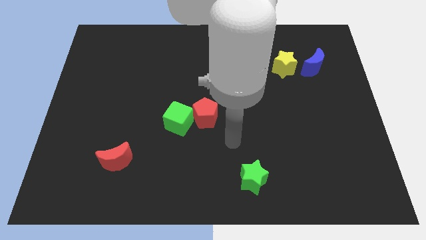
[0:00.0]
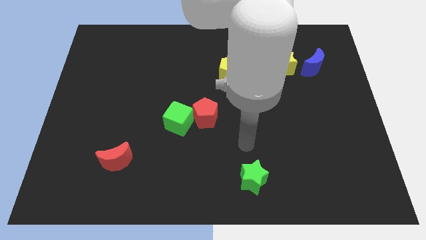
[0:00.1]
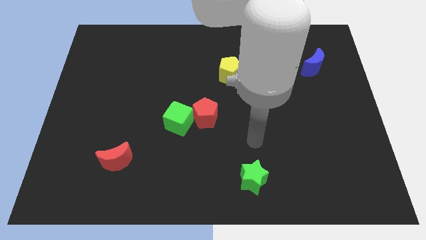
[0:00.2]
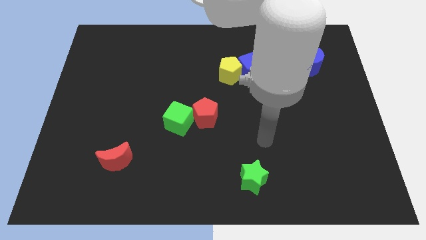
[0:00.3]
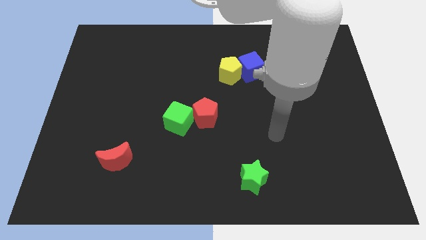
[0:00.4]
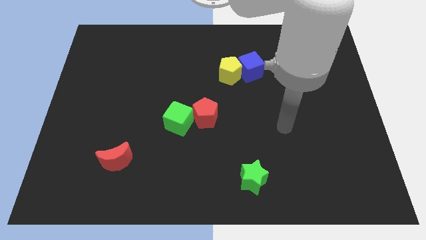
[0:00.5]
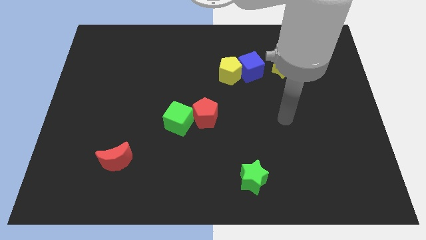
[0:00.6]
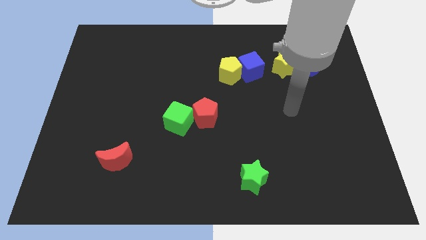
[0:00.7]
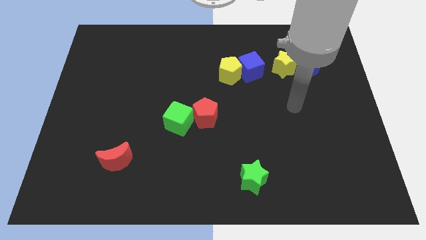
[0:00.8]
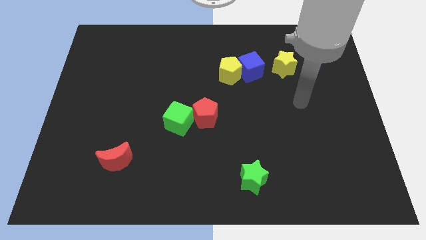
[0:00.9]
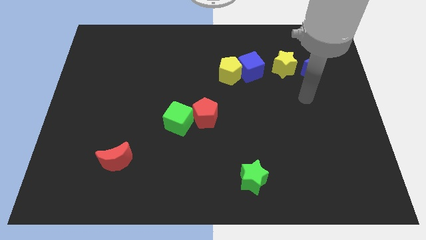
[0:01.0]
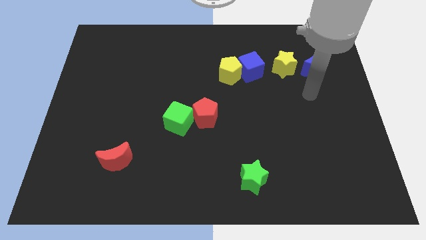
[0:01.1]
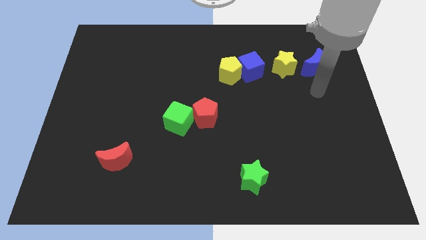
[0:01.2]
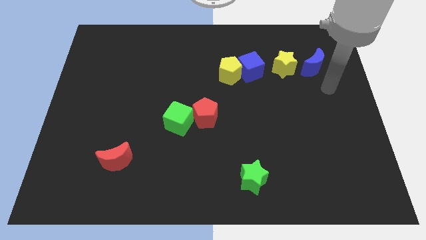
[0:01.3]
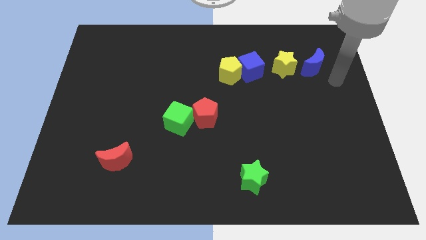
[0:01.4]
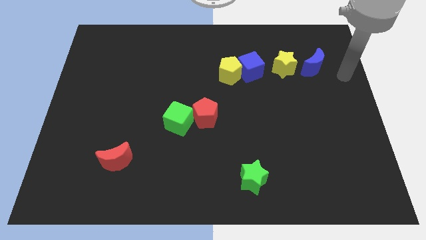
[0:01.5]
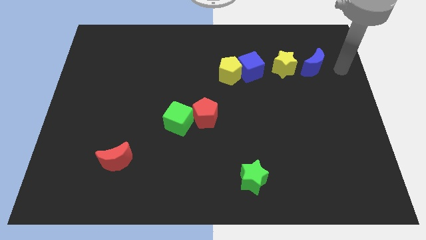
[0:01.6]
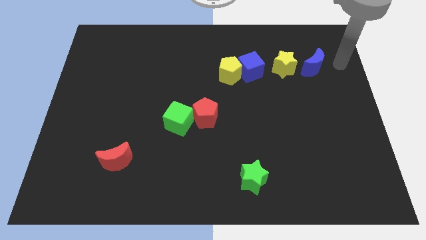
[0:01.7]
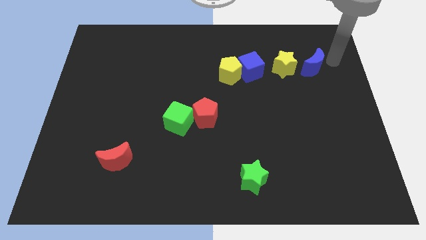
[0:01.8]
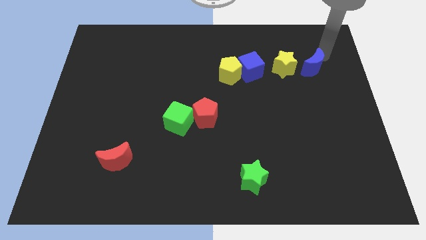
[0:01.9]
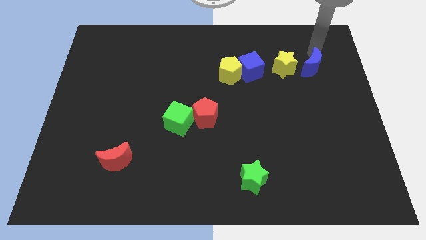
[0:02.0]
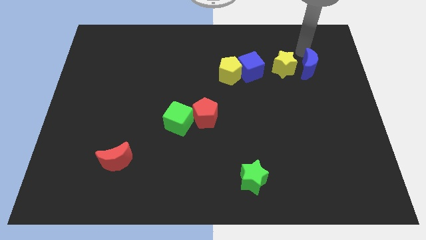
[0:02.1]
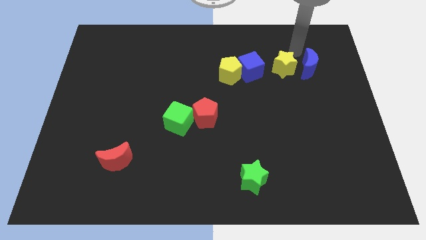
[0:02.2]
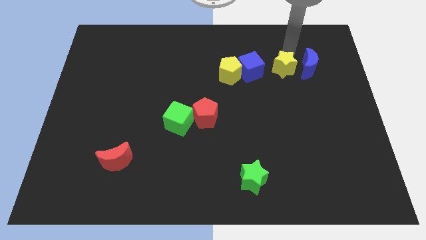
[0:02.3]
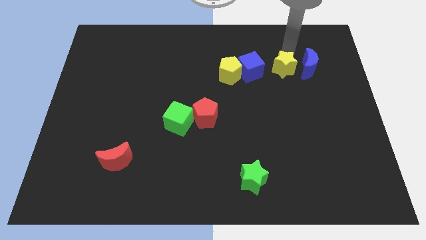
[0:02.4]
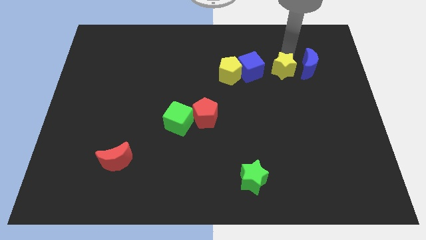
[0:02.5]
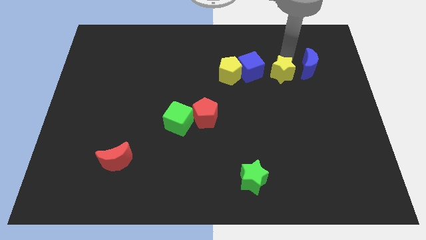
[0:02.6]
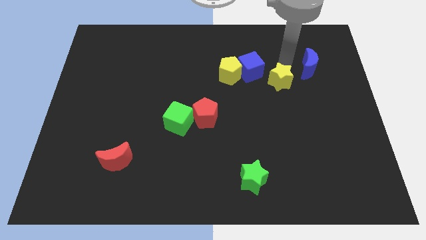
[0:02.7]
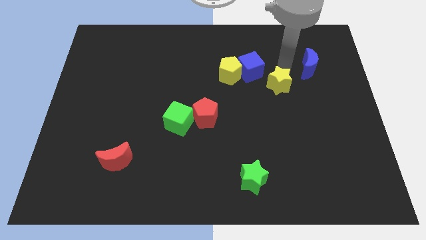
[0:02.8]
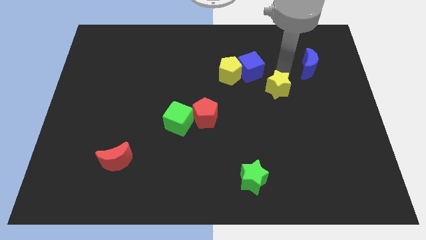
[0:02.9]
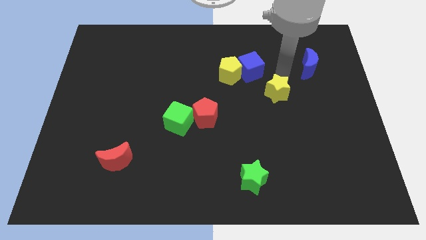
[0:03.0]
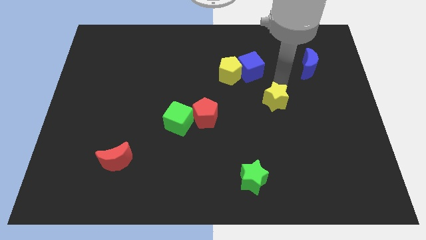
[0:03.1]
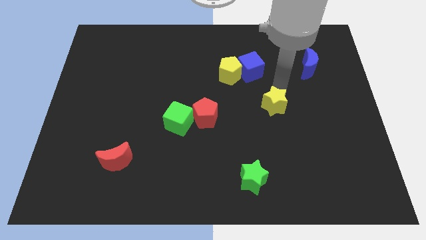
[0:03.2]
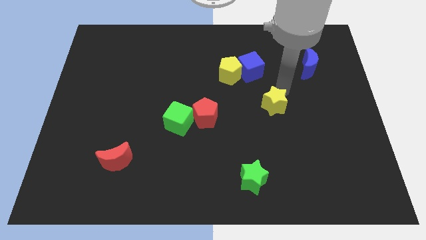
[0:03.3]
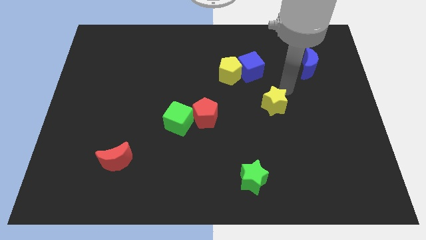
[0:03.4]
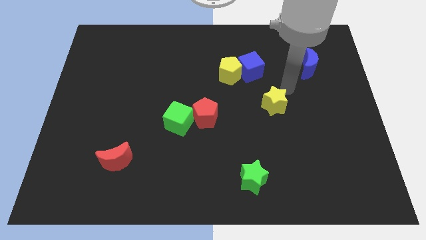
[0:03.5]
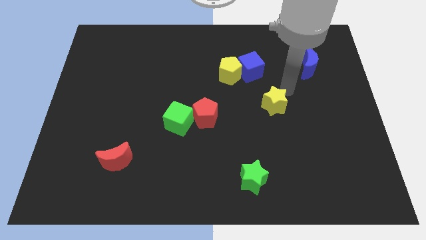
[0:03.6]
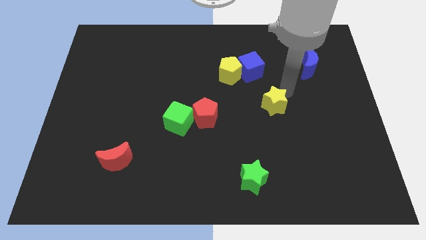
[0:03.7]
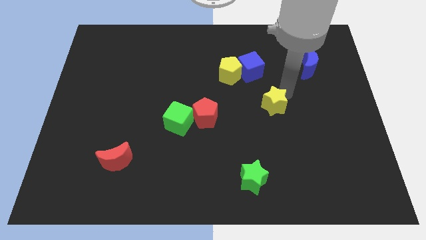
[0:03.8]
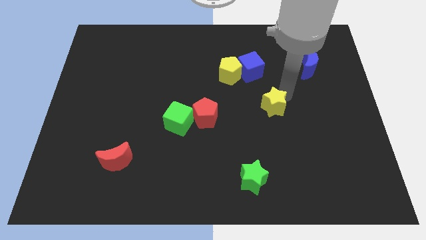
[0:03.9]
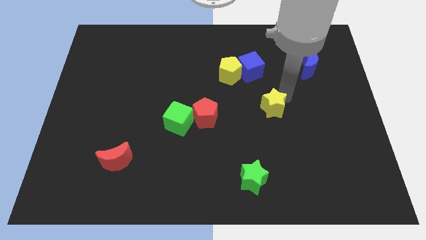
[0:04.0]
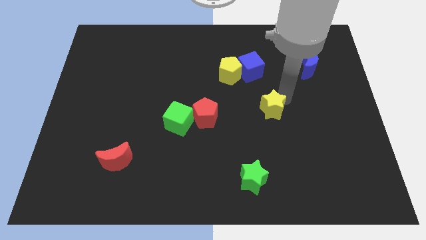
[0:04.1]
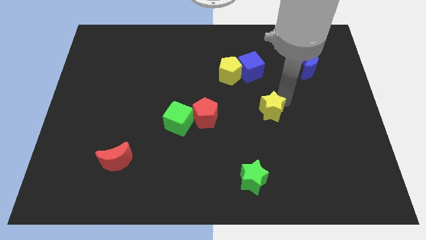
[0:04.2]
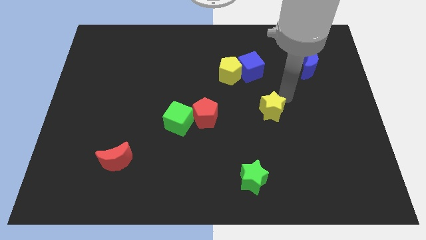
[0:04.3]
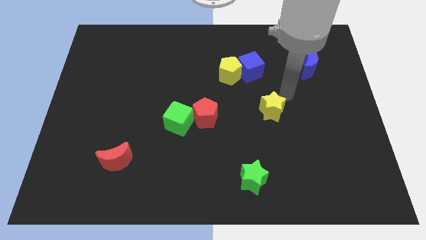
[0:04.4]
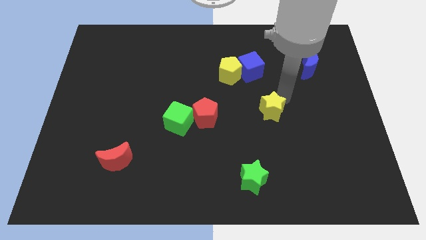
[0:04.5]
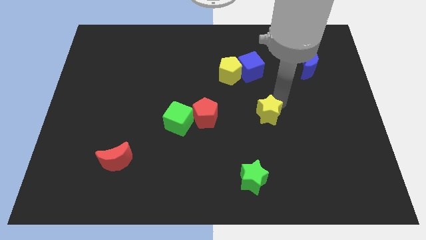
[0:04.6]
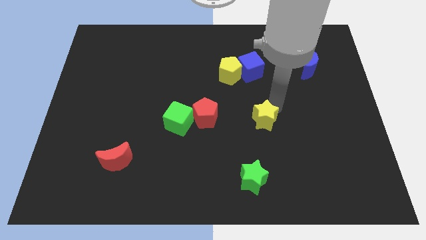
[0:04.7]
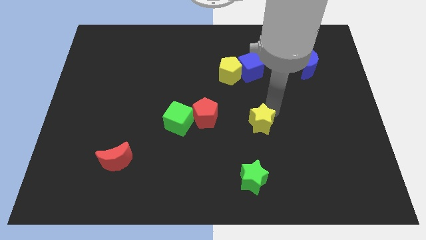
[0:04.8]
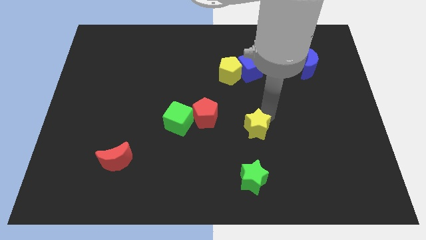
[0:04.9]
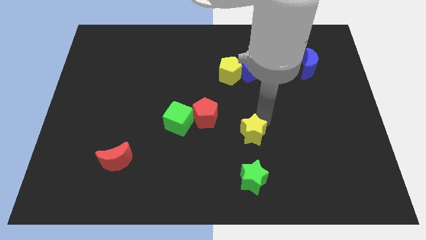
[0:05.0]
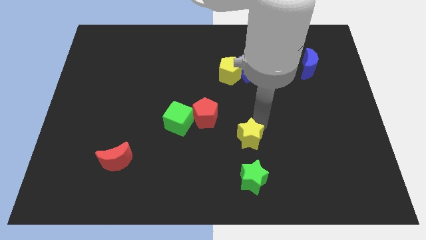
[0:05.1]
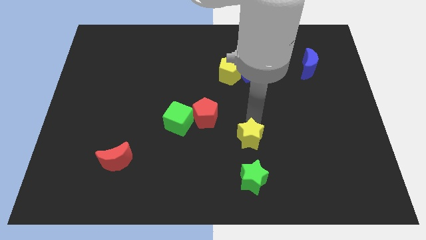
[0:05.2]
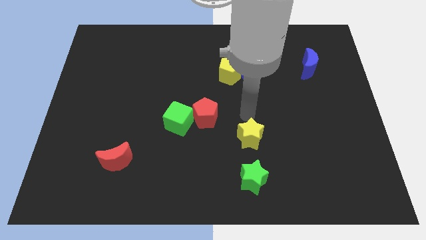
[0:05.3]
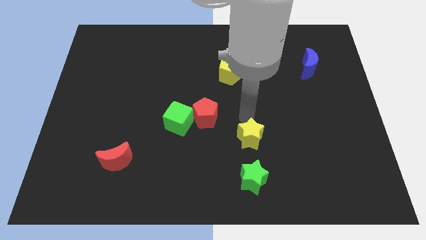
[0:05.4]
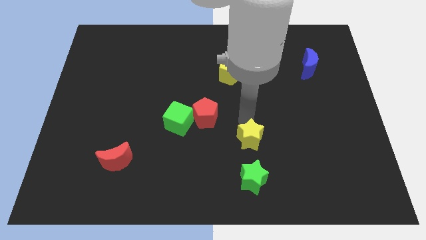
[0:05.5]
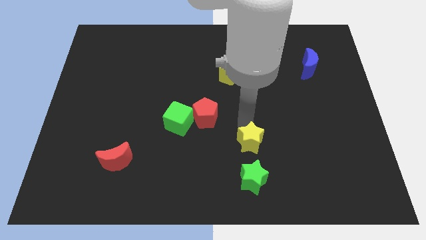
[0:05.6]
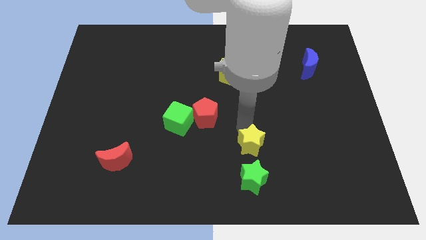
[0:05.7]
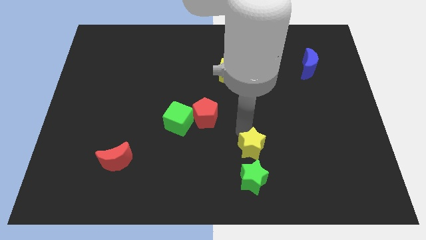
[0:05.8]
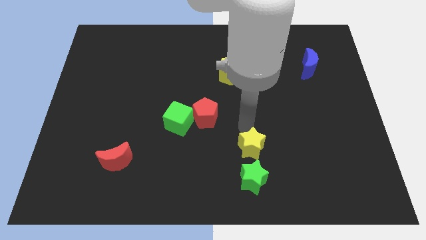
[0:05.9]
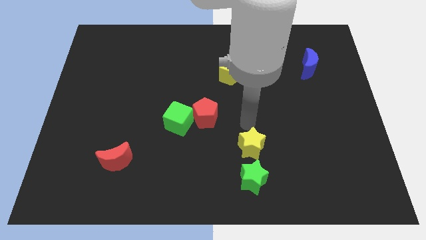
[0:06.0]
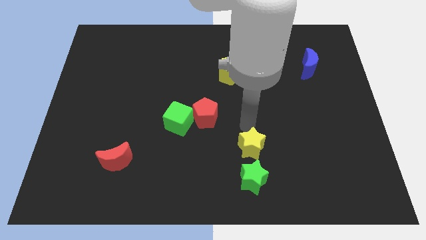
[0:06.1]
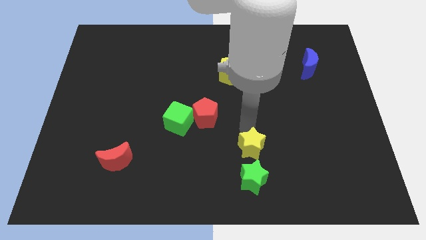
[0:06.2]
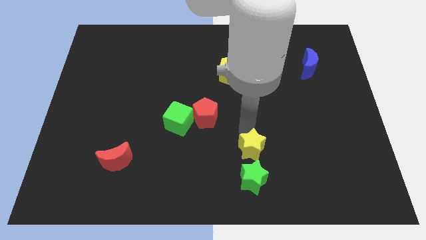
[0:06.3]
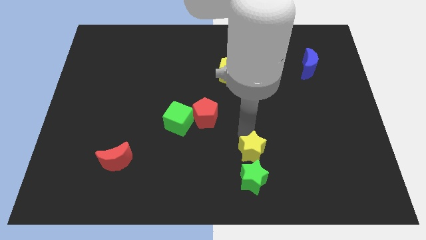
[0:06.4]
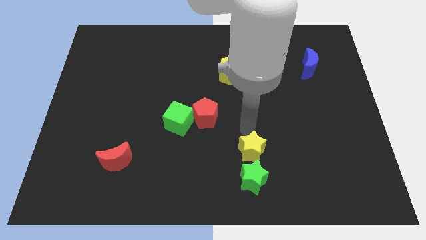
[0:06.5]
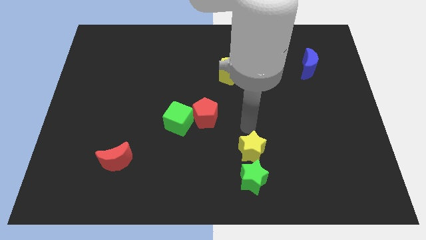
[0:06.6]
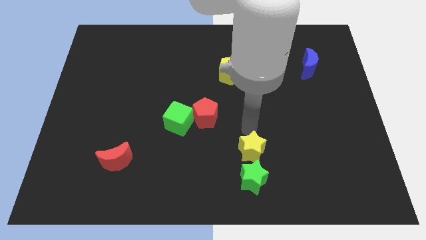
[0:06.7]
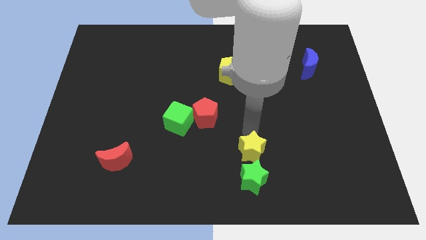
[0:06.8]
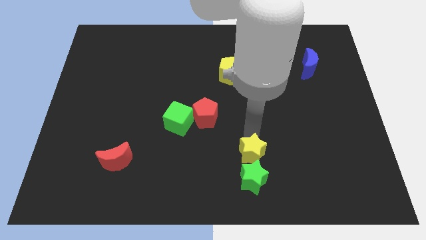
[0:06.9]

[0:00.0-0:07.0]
slide the yellow star next to the green star

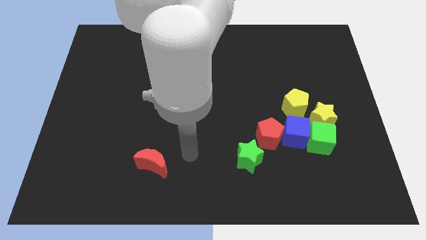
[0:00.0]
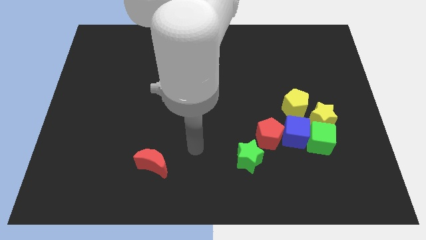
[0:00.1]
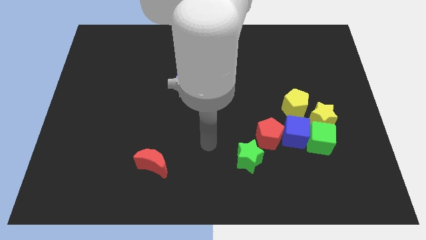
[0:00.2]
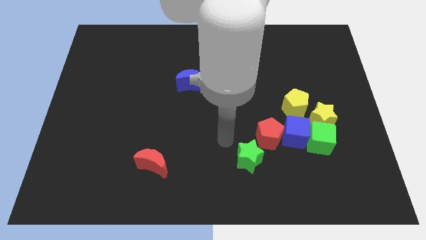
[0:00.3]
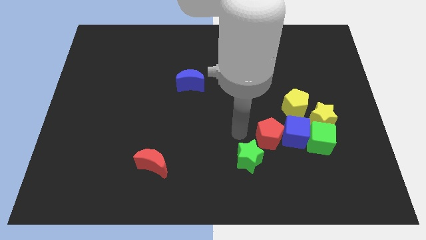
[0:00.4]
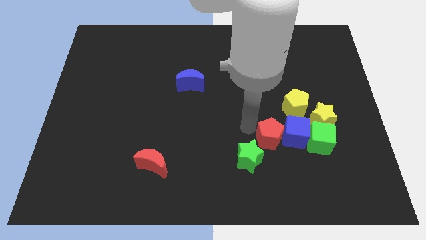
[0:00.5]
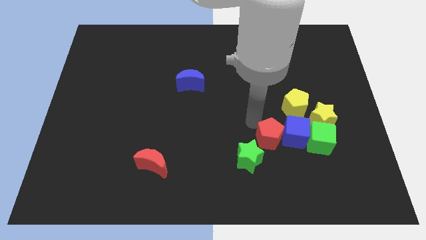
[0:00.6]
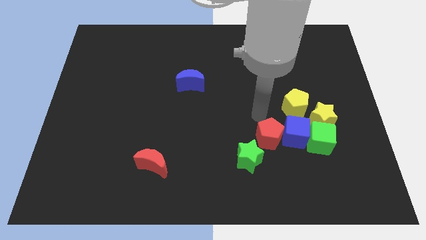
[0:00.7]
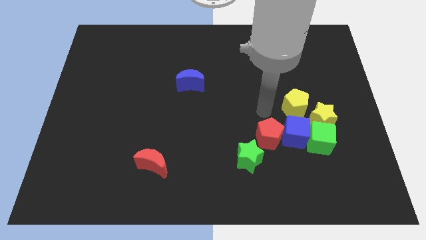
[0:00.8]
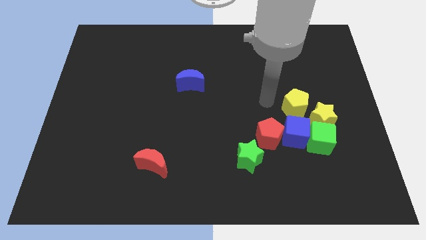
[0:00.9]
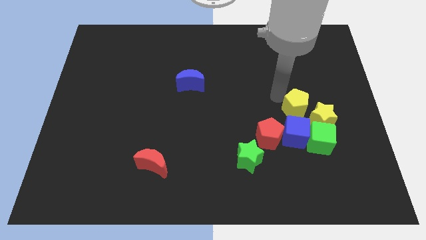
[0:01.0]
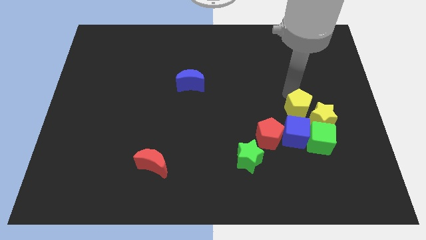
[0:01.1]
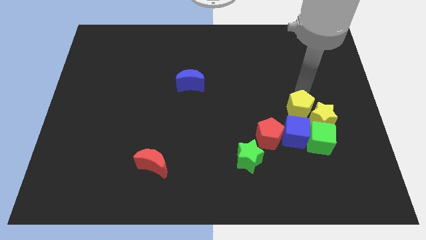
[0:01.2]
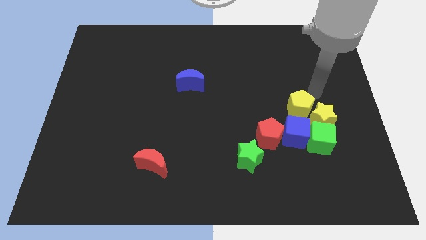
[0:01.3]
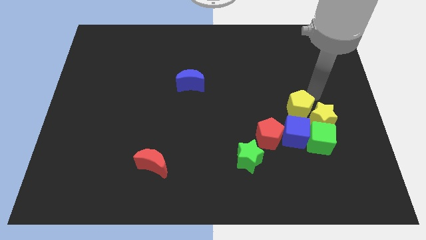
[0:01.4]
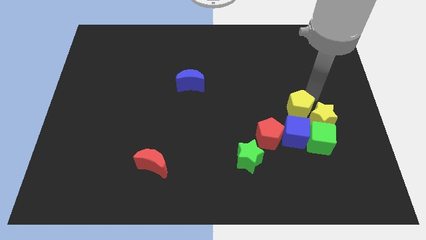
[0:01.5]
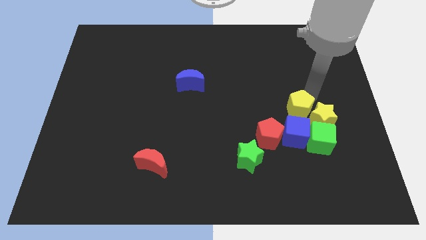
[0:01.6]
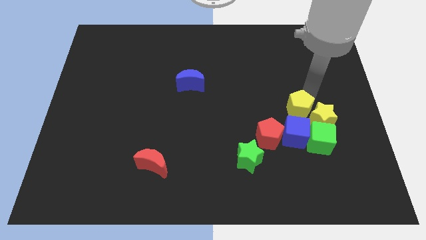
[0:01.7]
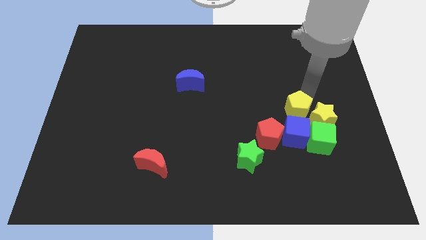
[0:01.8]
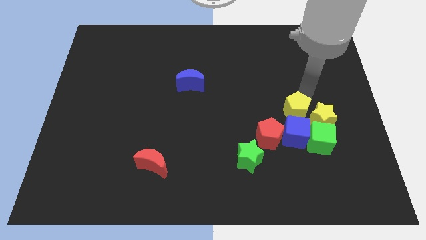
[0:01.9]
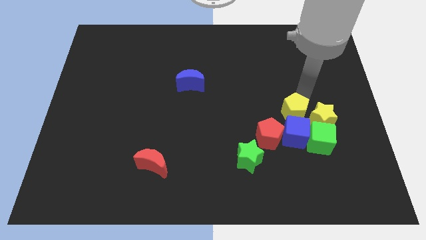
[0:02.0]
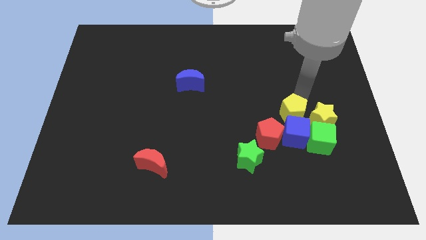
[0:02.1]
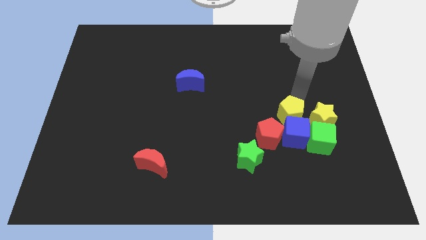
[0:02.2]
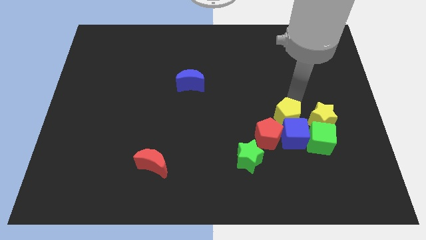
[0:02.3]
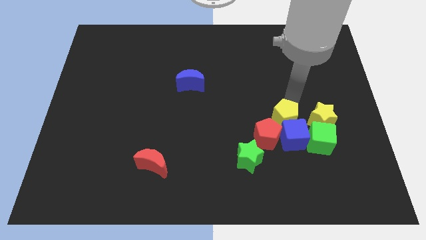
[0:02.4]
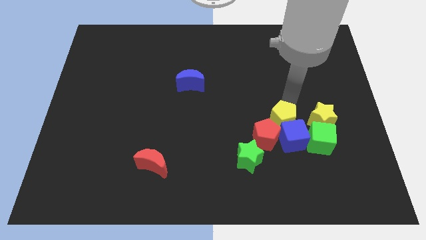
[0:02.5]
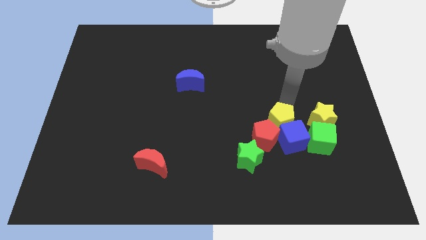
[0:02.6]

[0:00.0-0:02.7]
move the yellow pentagon close to the red pentagon
